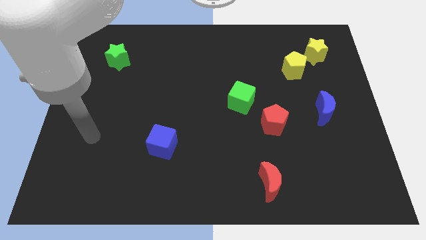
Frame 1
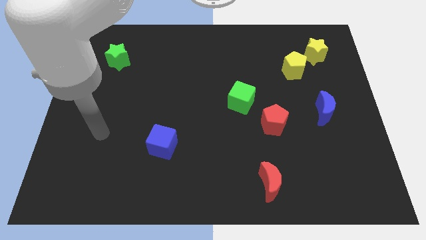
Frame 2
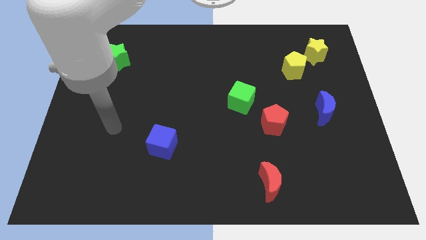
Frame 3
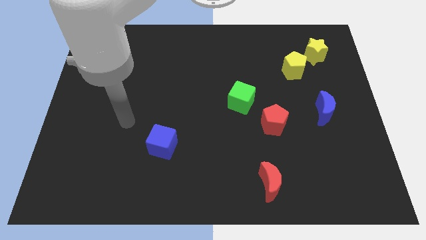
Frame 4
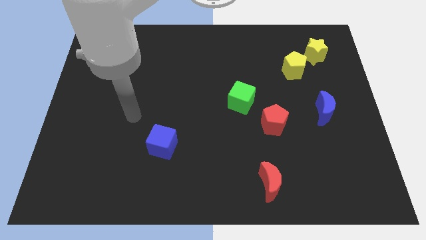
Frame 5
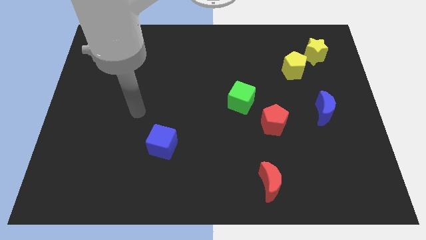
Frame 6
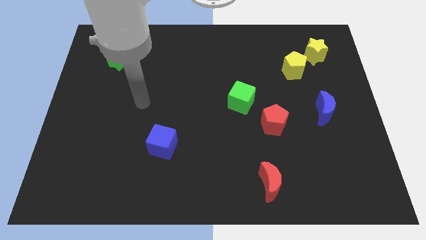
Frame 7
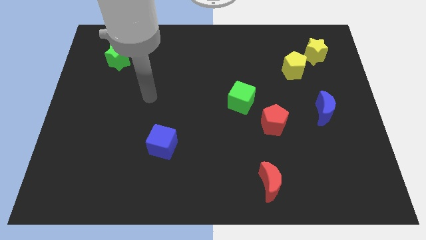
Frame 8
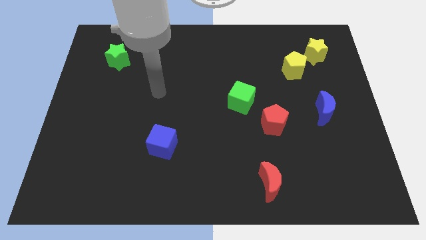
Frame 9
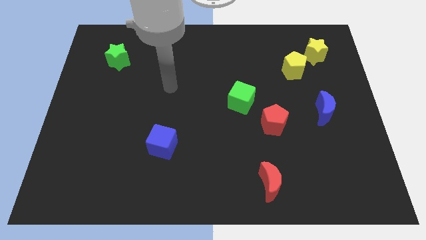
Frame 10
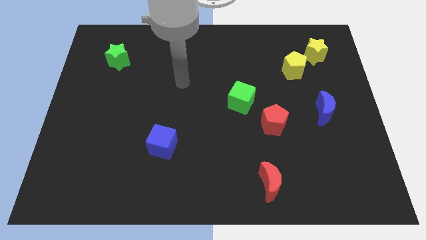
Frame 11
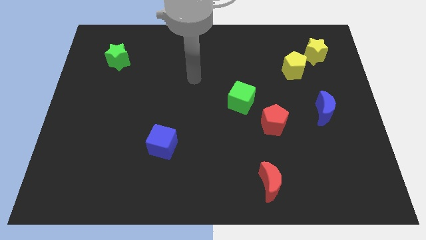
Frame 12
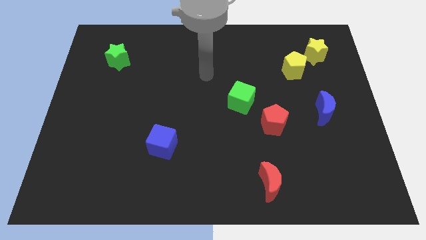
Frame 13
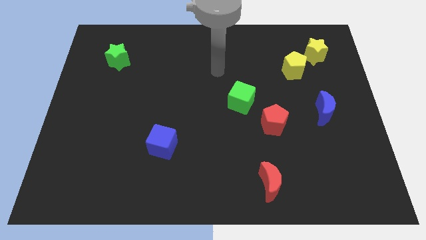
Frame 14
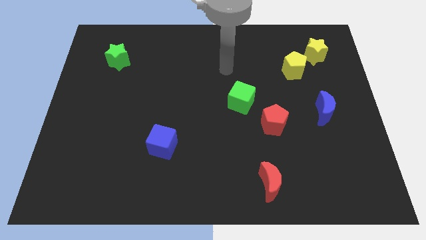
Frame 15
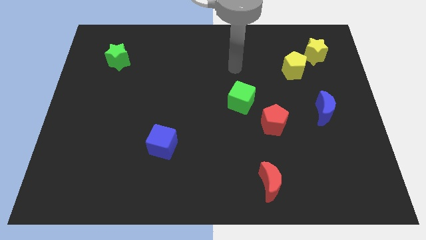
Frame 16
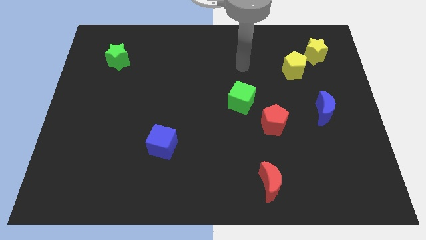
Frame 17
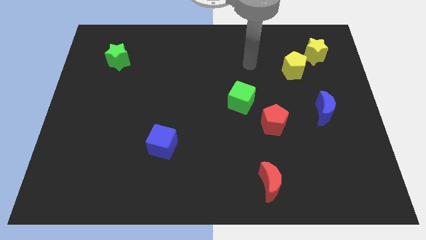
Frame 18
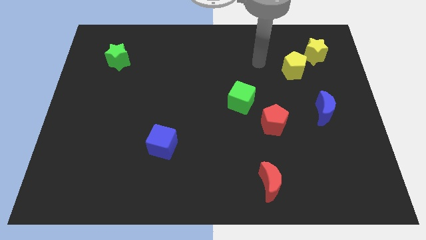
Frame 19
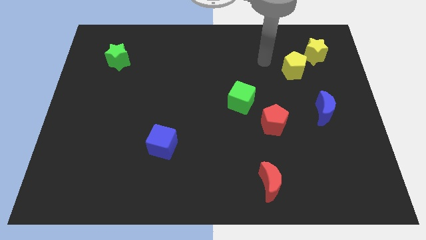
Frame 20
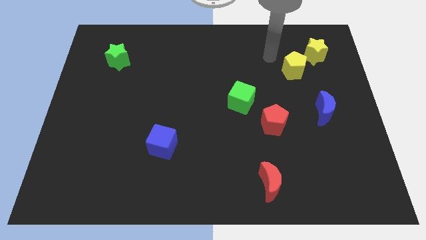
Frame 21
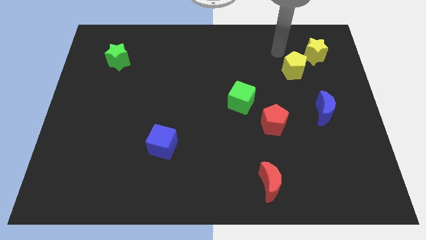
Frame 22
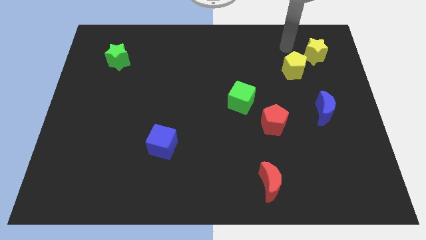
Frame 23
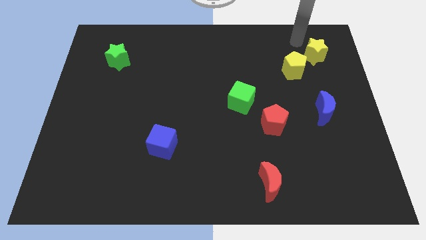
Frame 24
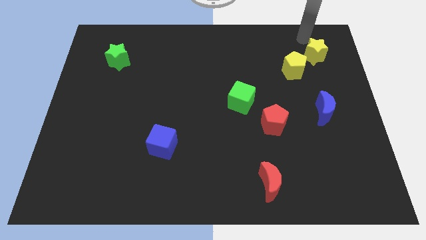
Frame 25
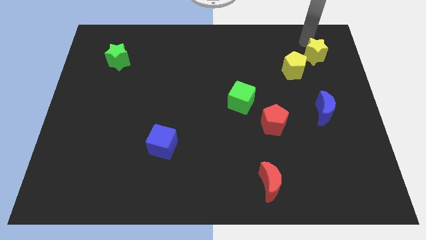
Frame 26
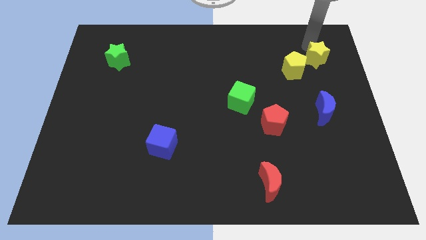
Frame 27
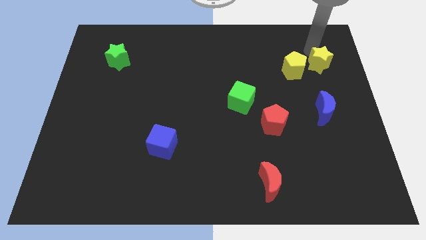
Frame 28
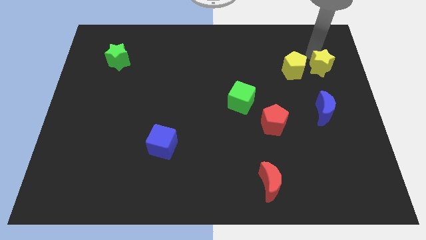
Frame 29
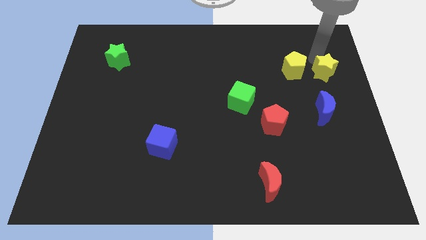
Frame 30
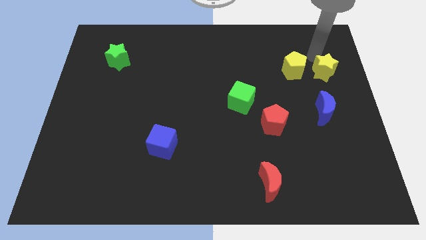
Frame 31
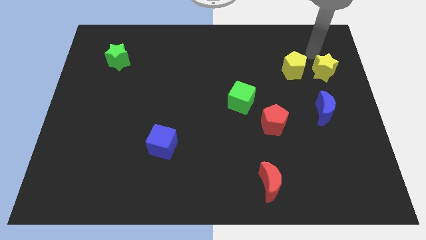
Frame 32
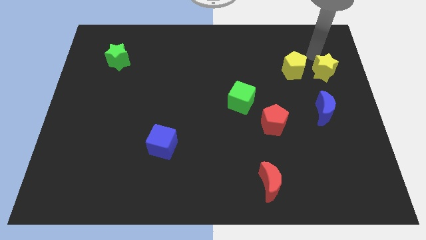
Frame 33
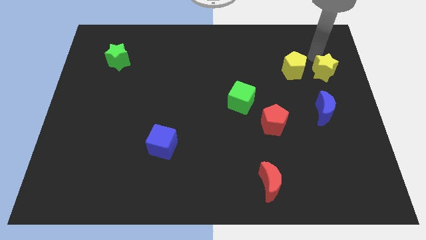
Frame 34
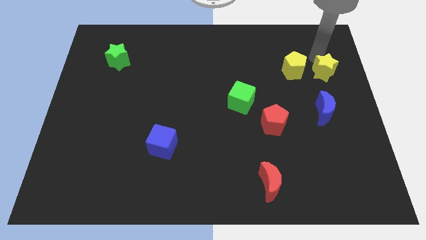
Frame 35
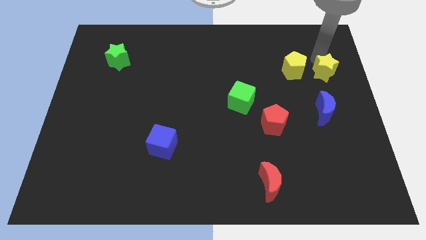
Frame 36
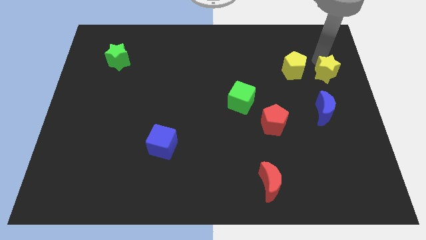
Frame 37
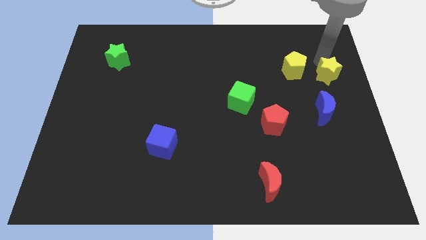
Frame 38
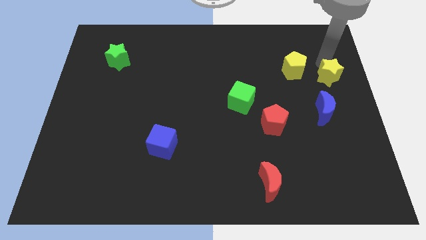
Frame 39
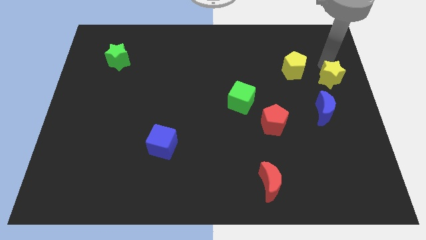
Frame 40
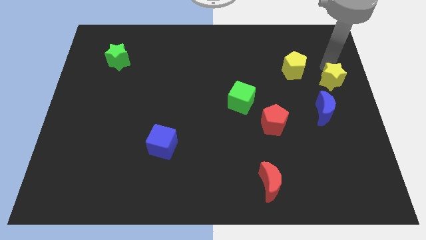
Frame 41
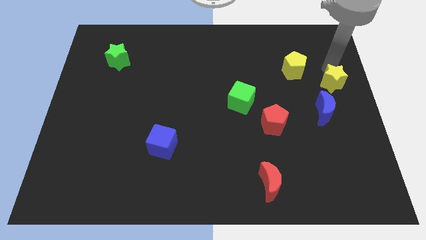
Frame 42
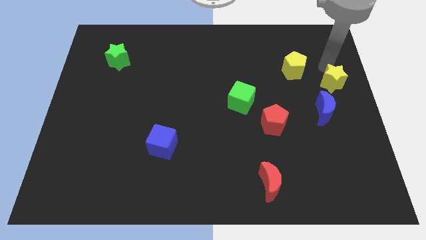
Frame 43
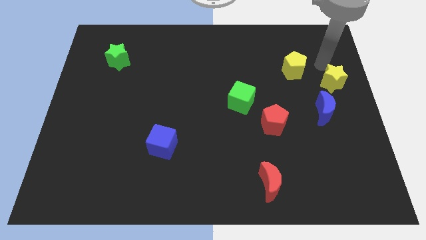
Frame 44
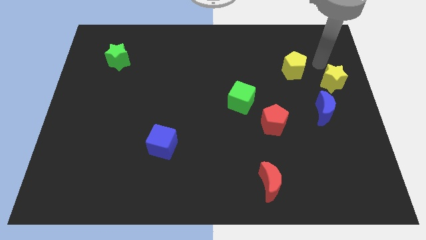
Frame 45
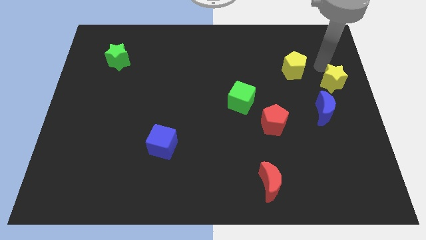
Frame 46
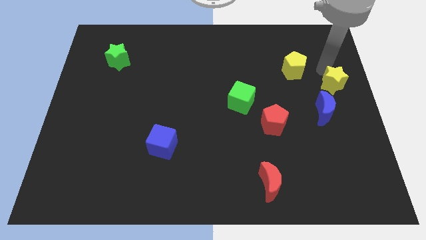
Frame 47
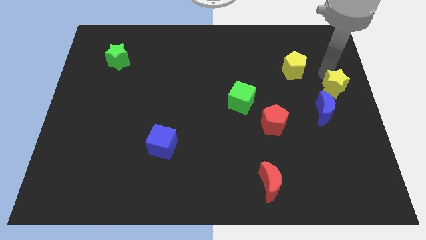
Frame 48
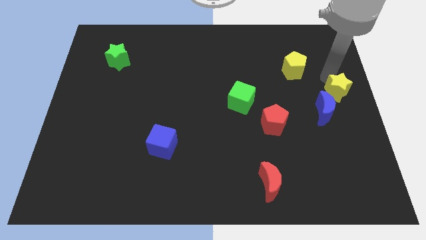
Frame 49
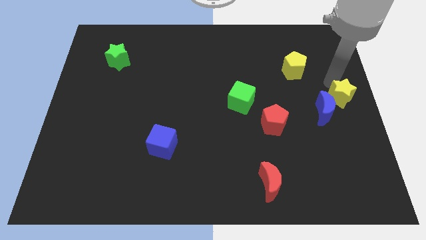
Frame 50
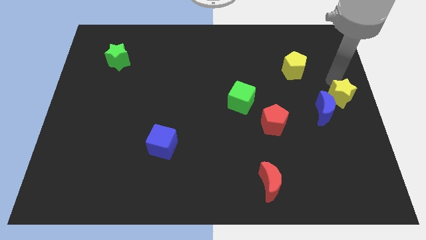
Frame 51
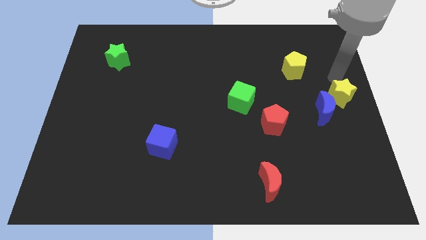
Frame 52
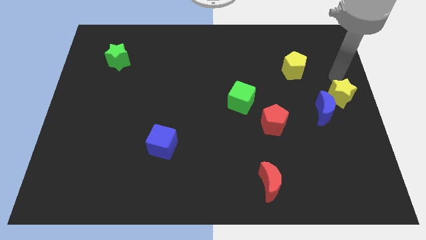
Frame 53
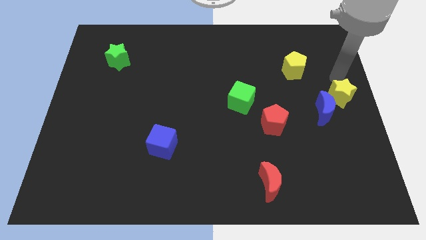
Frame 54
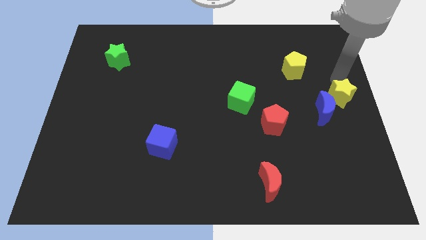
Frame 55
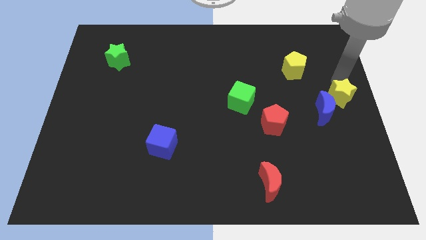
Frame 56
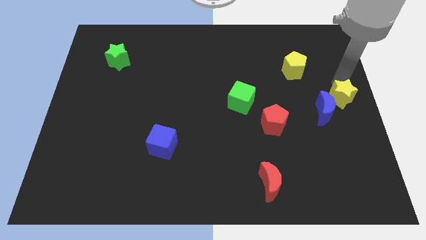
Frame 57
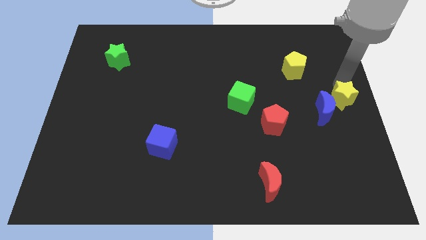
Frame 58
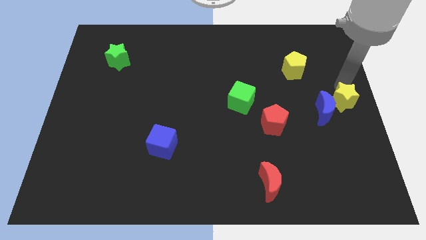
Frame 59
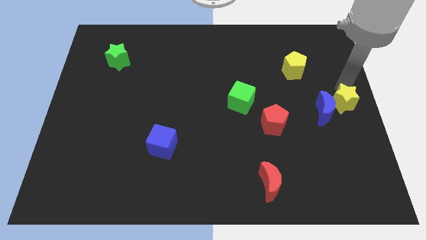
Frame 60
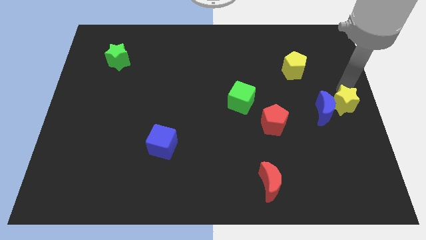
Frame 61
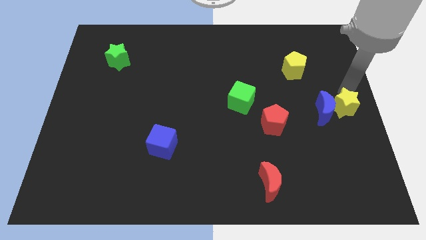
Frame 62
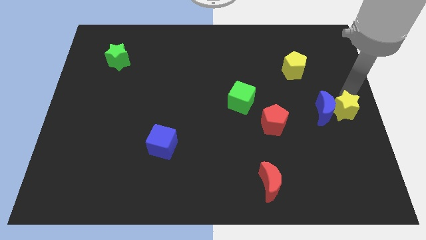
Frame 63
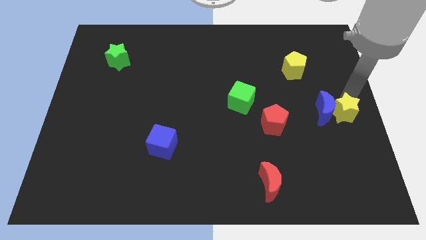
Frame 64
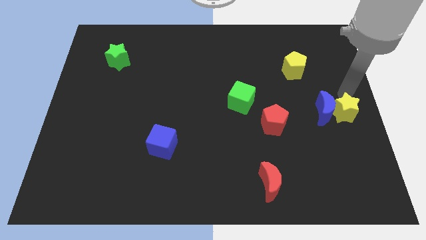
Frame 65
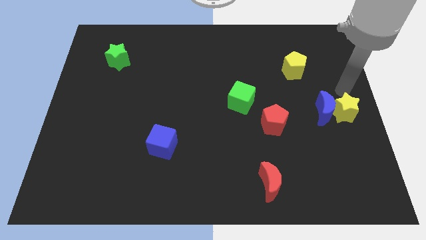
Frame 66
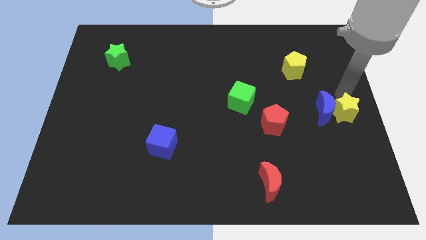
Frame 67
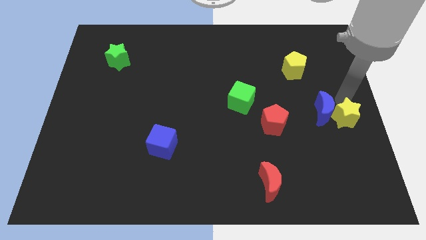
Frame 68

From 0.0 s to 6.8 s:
slide the yellow star downwards

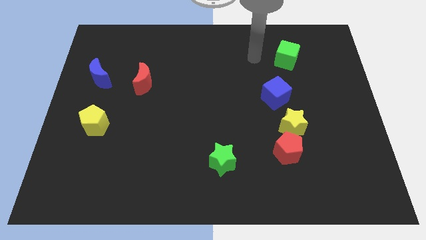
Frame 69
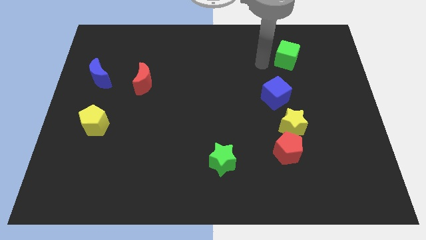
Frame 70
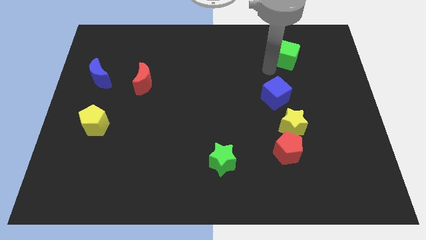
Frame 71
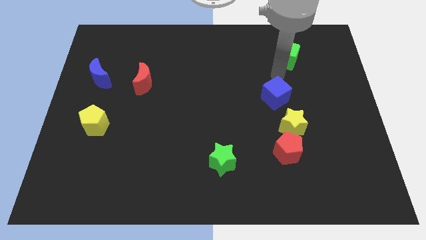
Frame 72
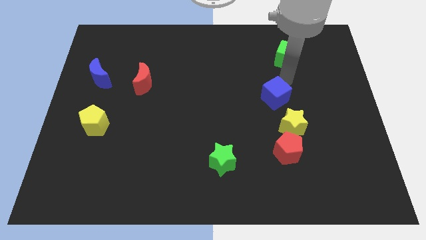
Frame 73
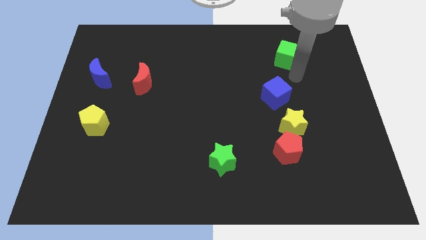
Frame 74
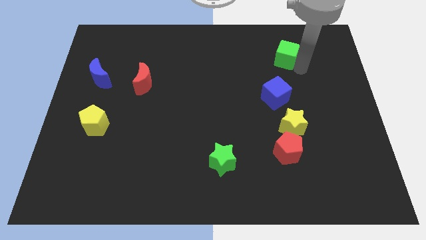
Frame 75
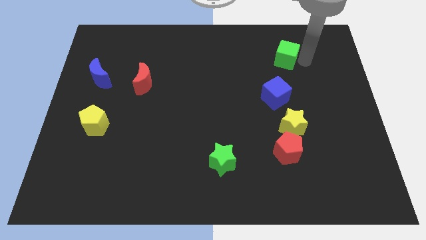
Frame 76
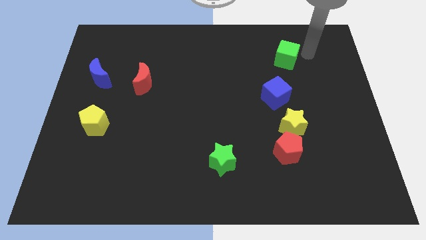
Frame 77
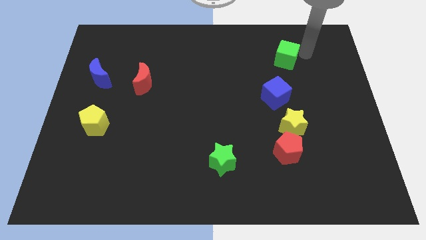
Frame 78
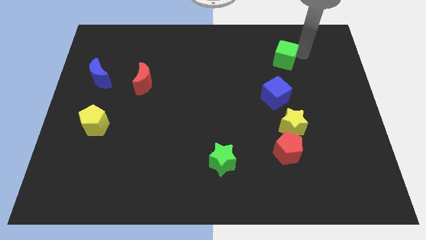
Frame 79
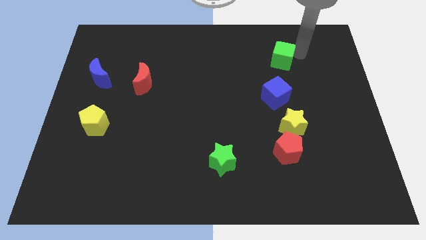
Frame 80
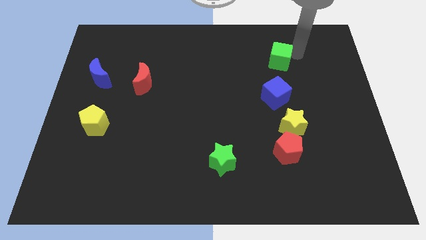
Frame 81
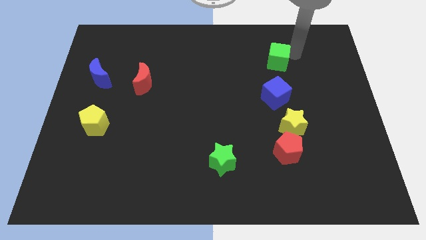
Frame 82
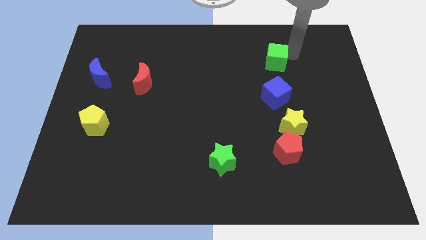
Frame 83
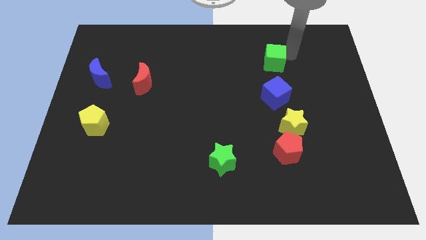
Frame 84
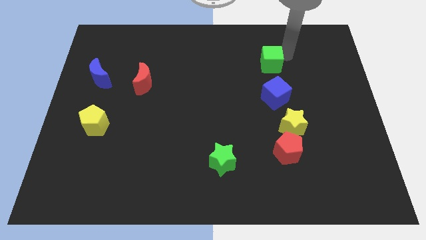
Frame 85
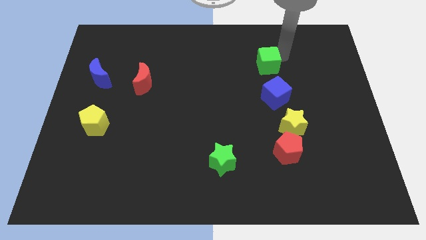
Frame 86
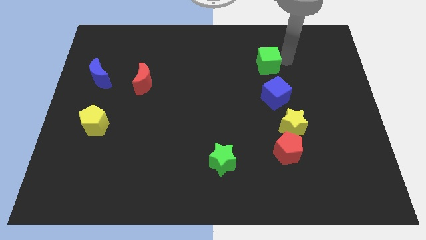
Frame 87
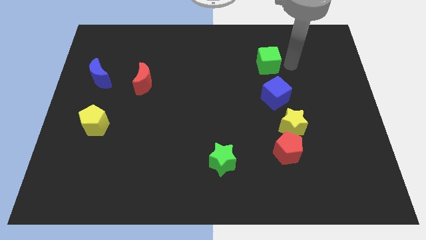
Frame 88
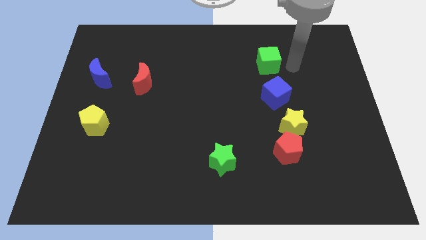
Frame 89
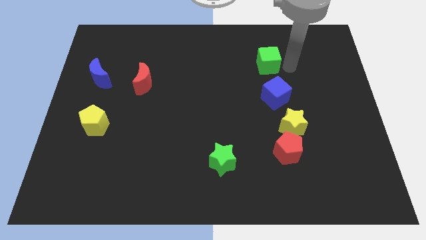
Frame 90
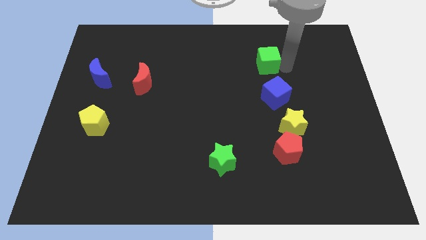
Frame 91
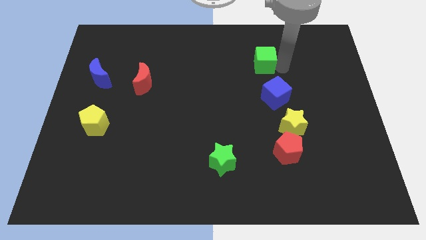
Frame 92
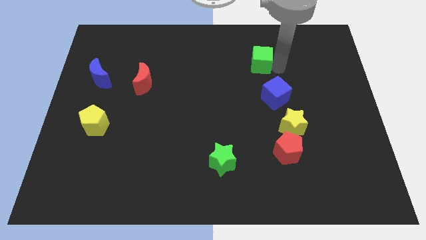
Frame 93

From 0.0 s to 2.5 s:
push the green cube to the left a little
